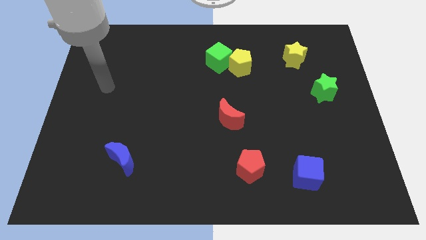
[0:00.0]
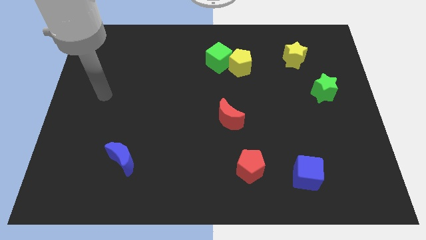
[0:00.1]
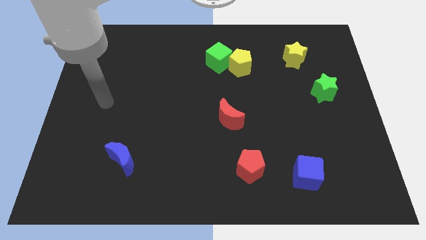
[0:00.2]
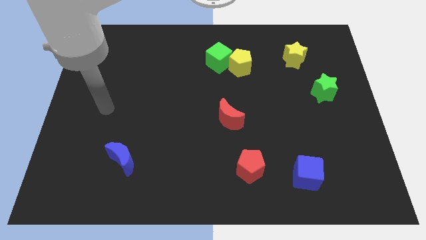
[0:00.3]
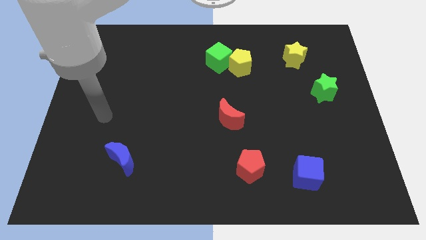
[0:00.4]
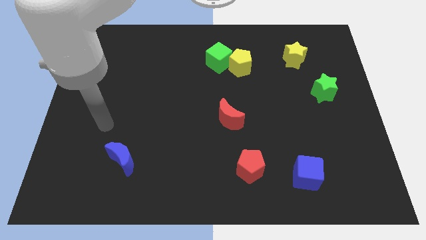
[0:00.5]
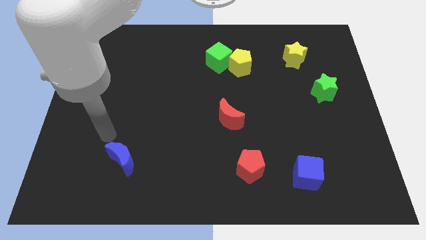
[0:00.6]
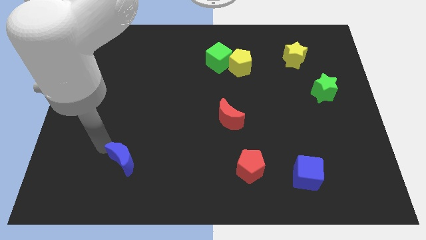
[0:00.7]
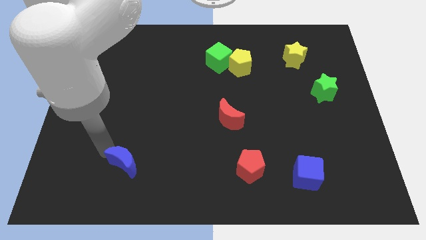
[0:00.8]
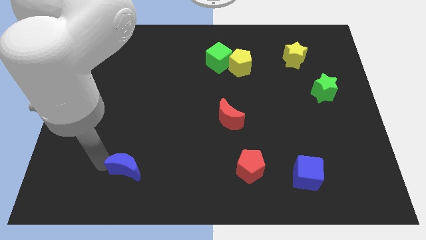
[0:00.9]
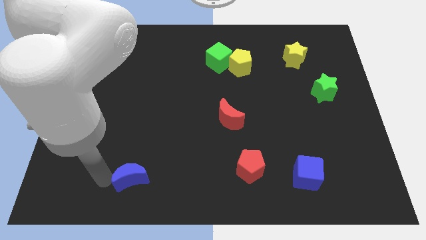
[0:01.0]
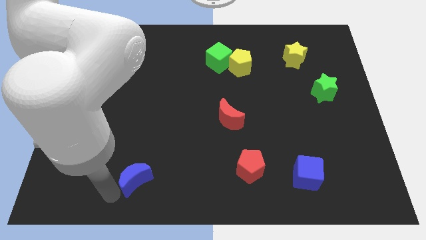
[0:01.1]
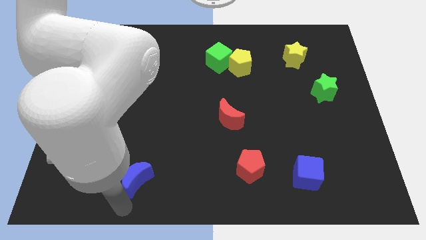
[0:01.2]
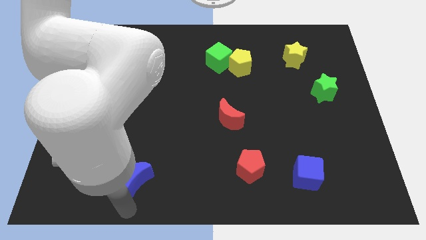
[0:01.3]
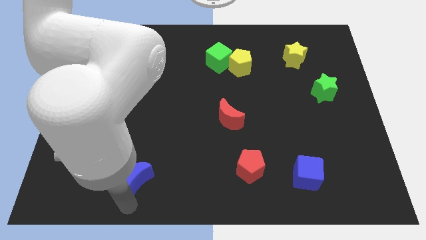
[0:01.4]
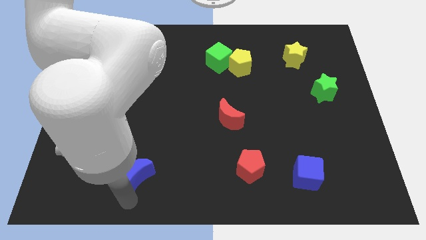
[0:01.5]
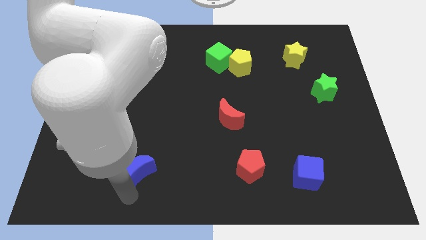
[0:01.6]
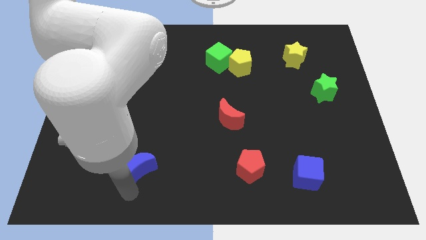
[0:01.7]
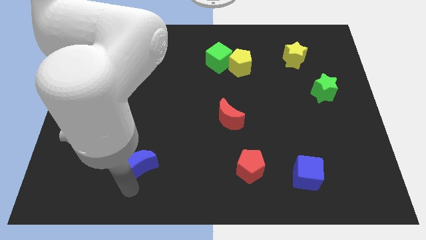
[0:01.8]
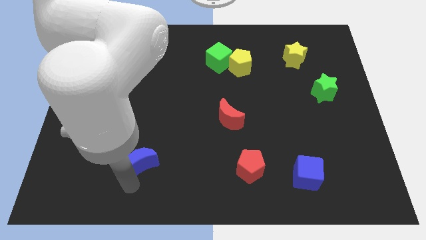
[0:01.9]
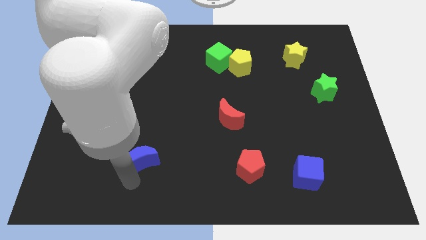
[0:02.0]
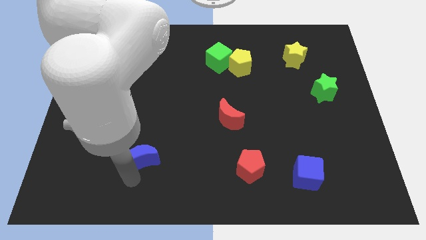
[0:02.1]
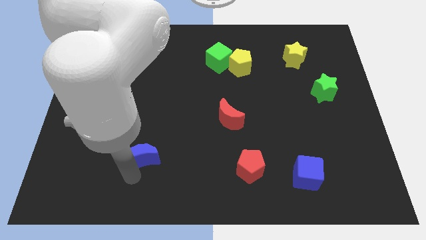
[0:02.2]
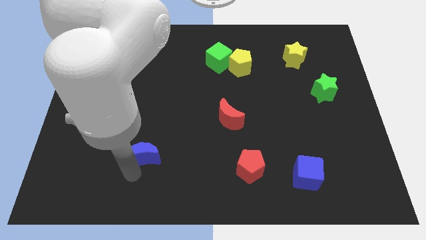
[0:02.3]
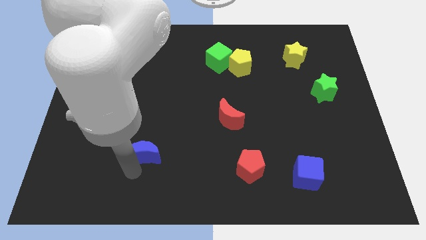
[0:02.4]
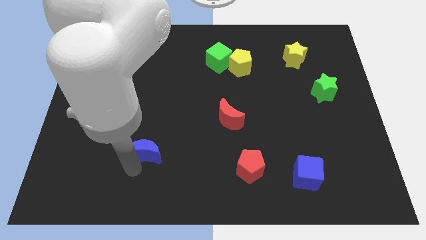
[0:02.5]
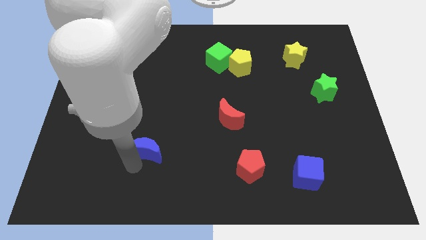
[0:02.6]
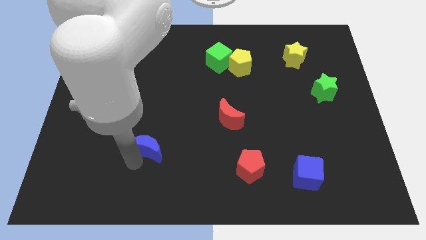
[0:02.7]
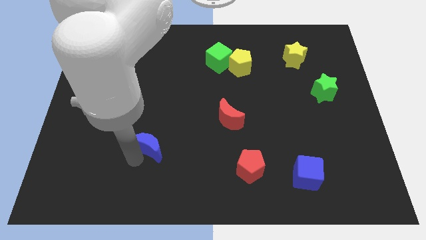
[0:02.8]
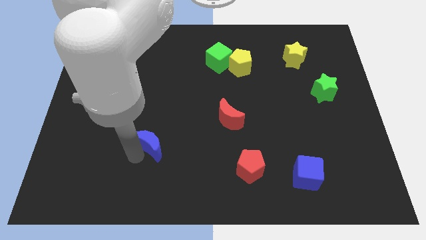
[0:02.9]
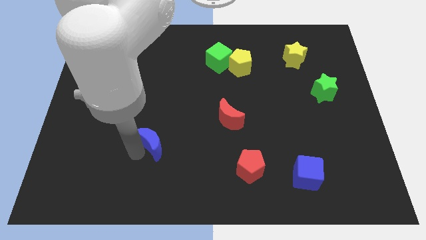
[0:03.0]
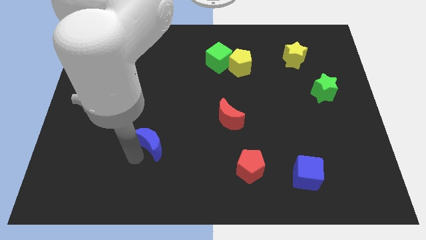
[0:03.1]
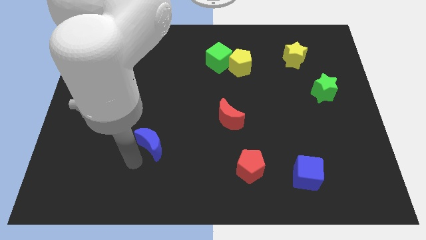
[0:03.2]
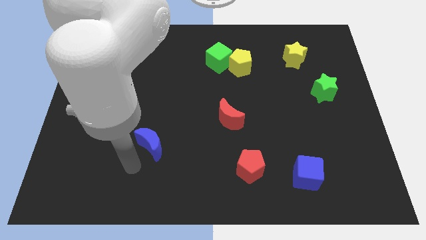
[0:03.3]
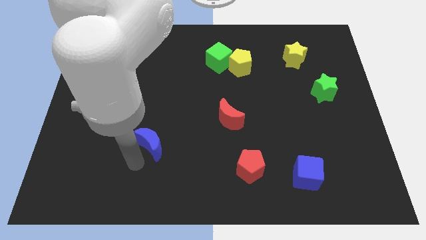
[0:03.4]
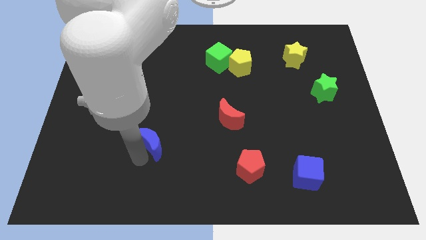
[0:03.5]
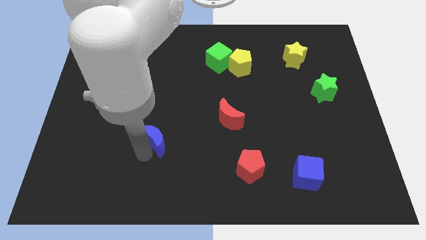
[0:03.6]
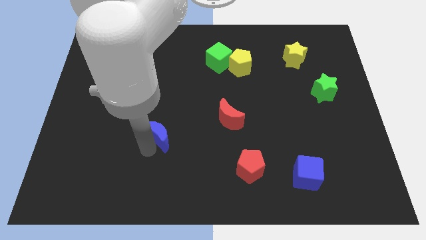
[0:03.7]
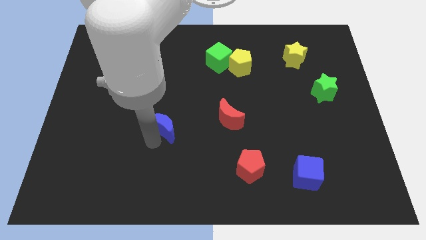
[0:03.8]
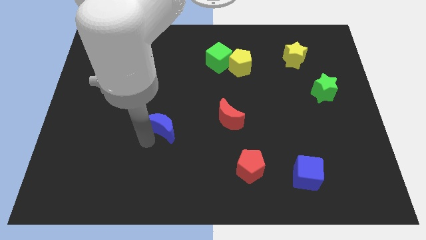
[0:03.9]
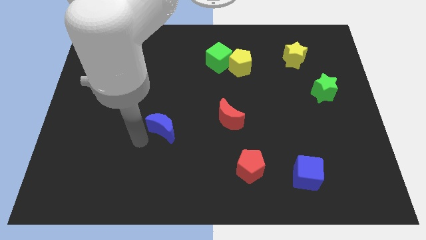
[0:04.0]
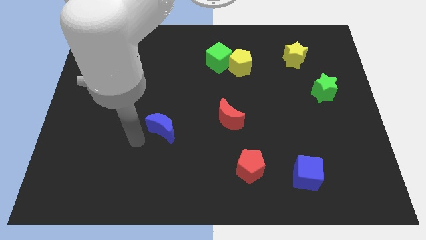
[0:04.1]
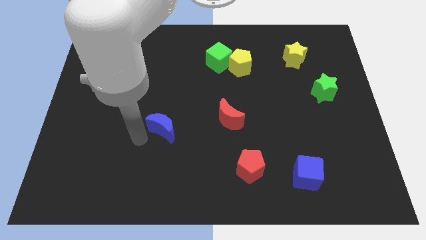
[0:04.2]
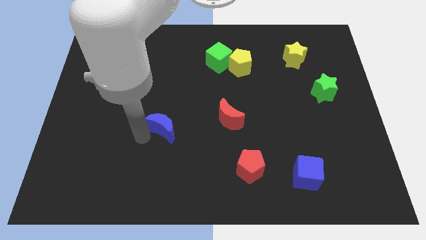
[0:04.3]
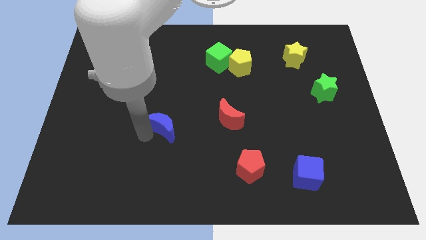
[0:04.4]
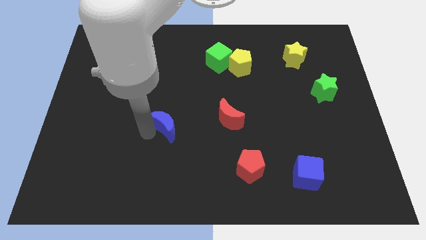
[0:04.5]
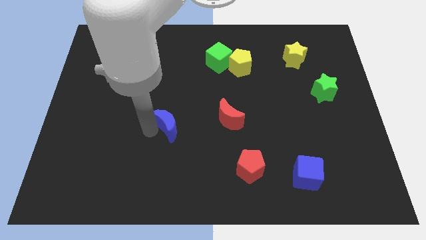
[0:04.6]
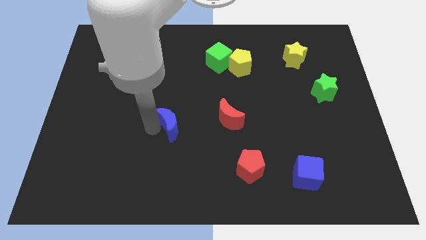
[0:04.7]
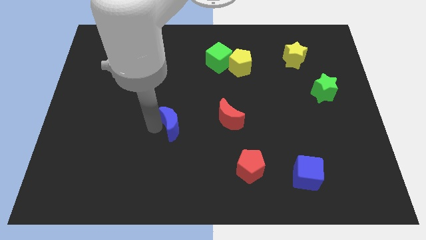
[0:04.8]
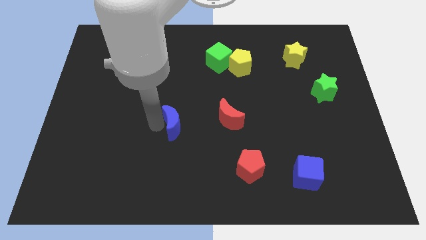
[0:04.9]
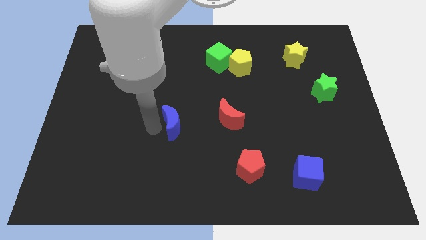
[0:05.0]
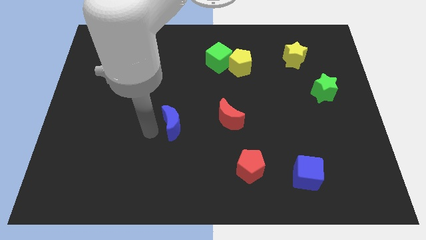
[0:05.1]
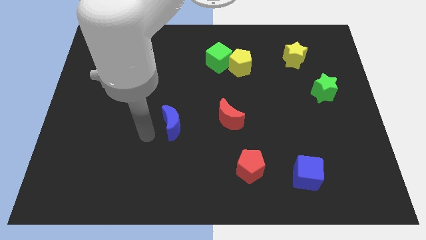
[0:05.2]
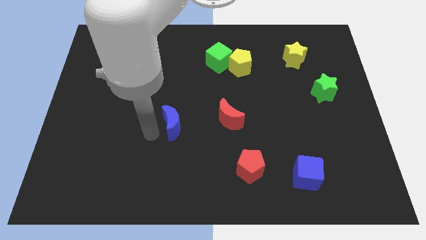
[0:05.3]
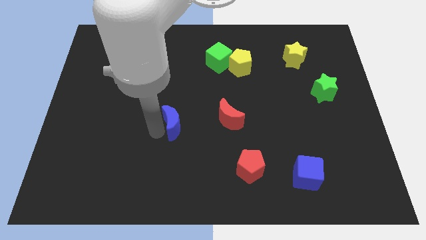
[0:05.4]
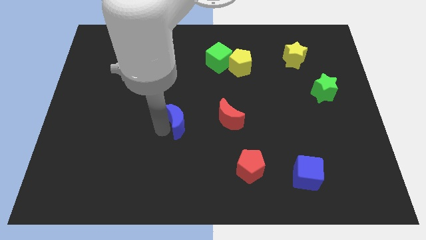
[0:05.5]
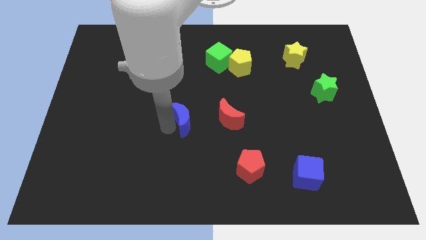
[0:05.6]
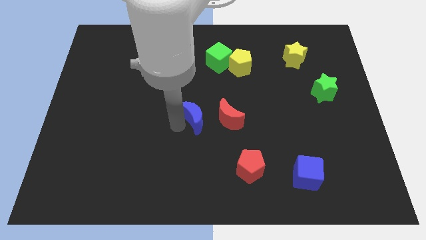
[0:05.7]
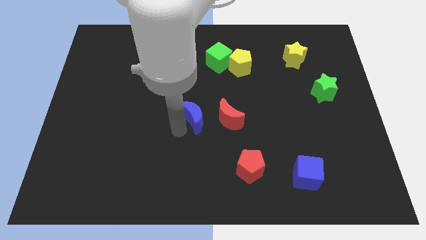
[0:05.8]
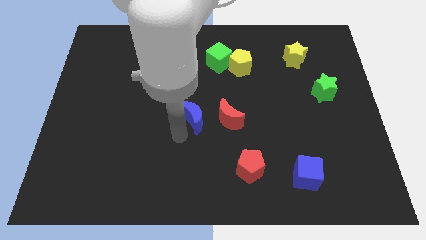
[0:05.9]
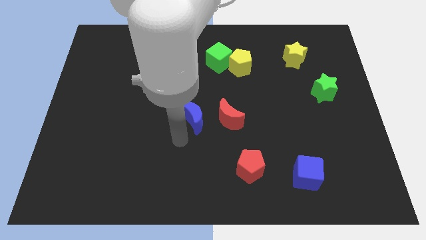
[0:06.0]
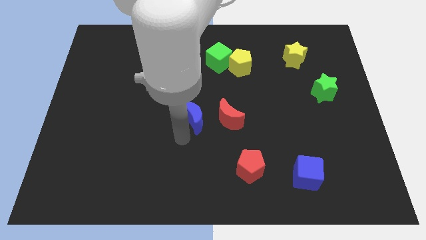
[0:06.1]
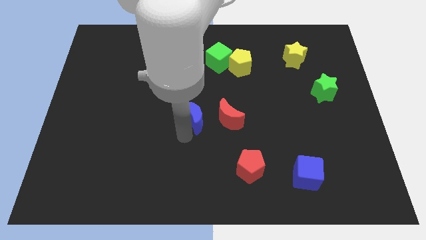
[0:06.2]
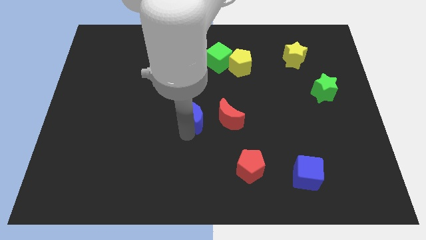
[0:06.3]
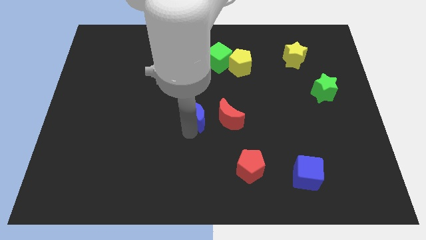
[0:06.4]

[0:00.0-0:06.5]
push the blue moon diagonally up and to the left of the red moon
